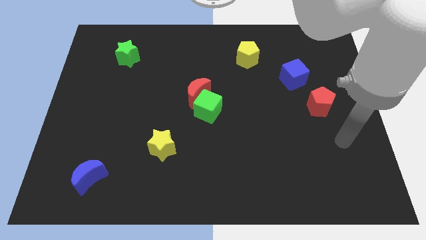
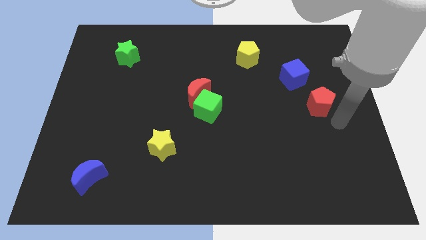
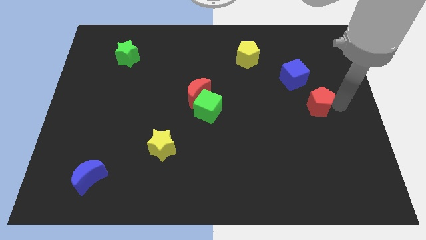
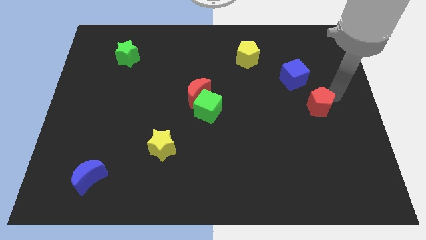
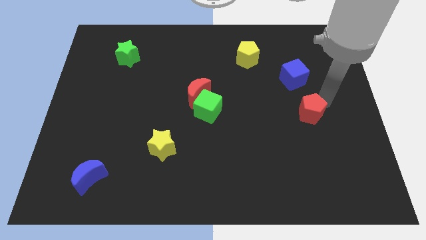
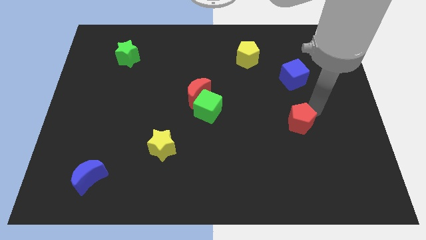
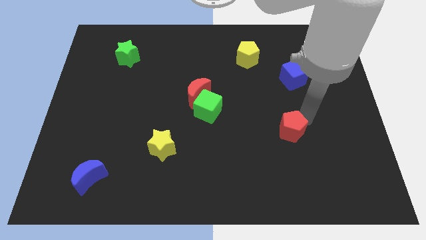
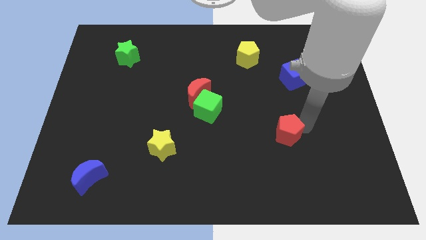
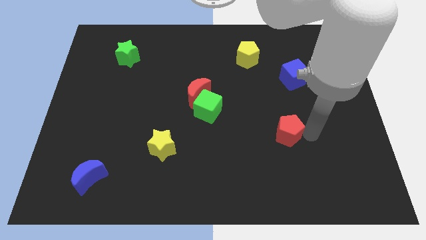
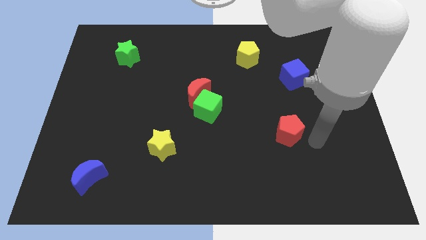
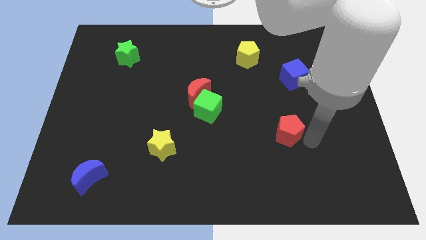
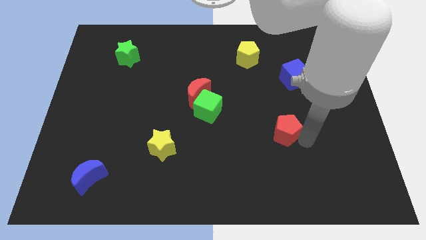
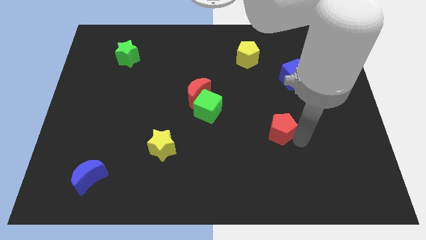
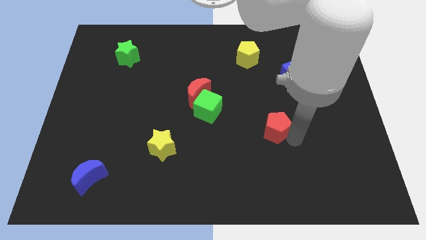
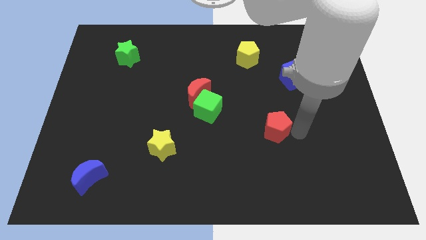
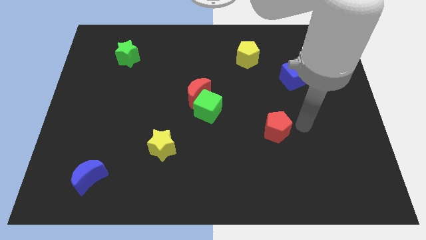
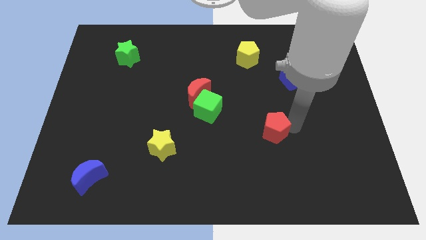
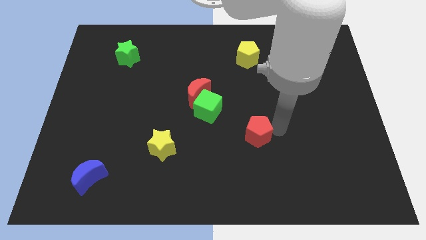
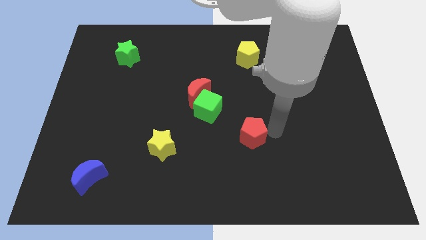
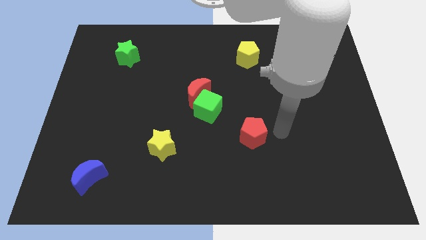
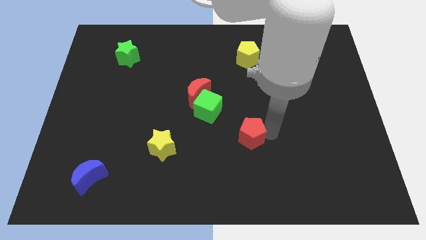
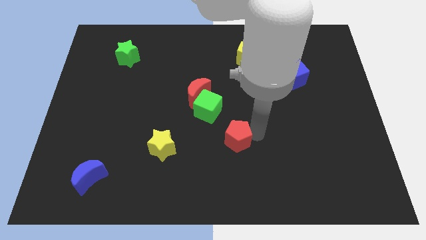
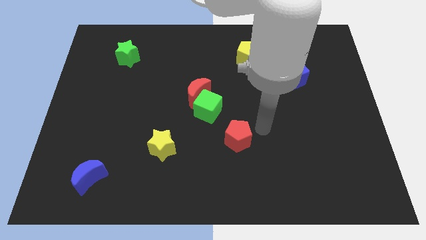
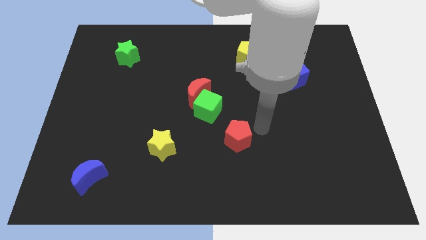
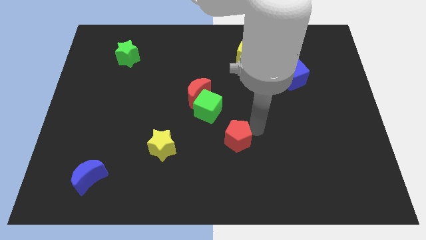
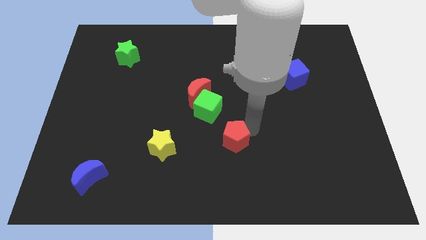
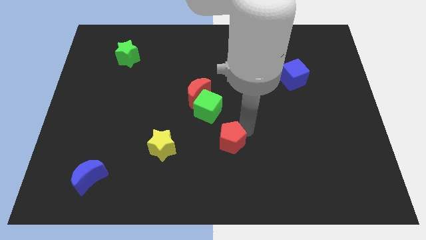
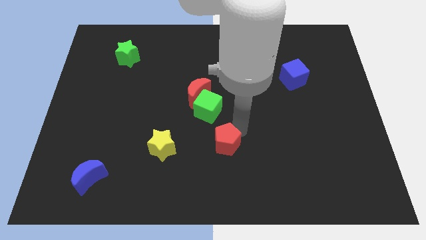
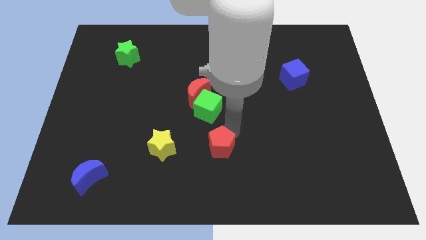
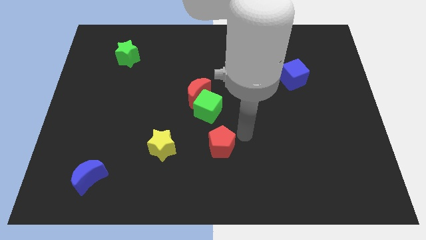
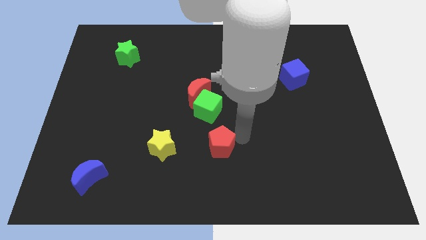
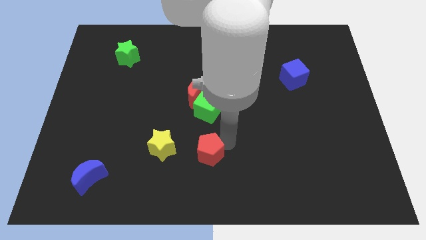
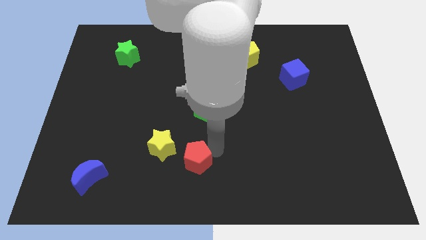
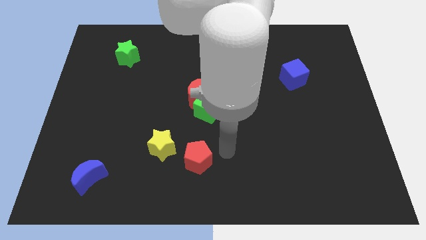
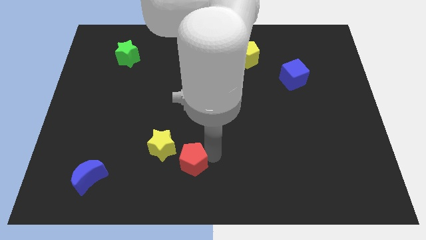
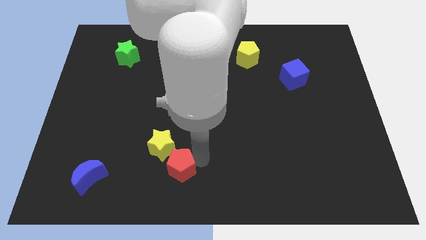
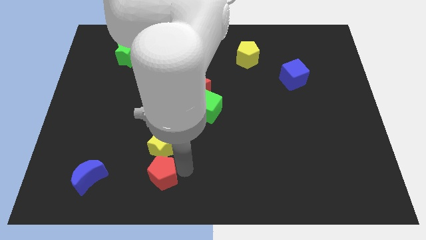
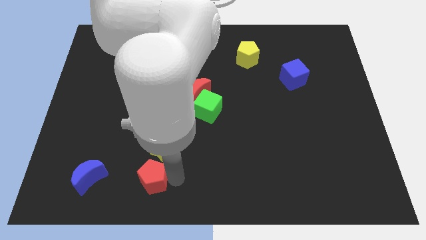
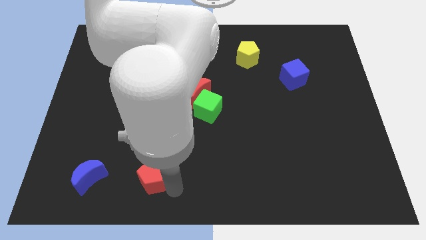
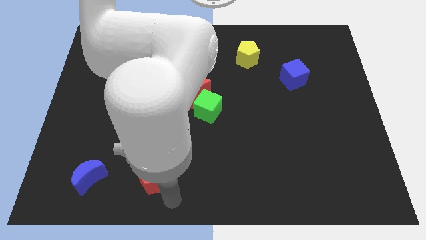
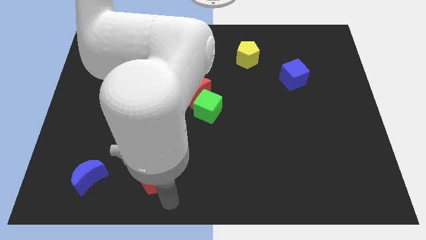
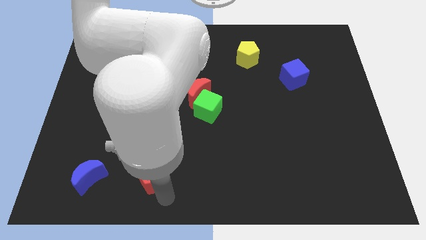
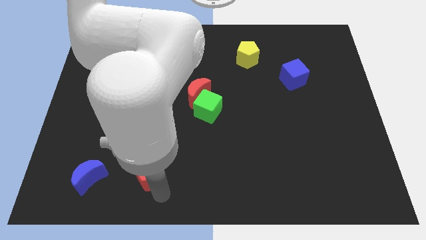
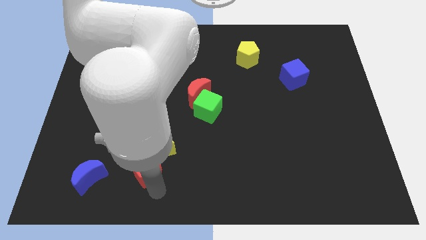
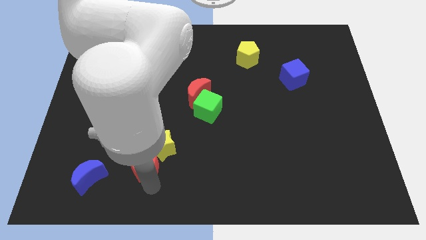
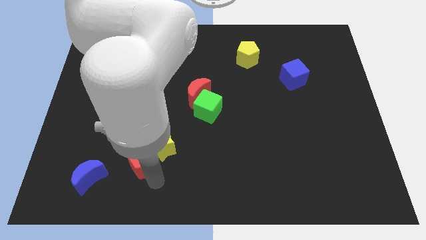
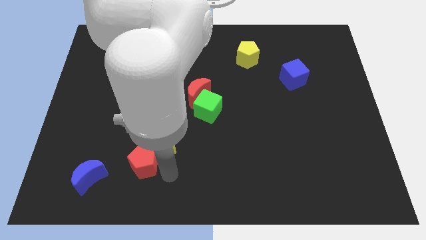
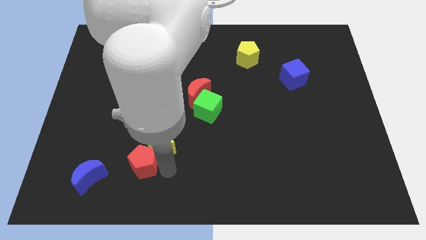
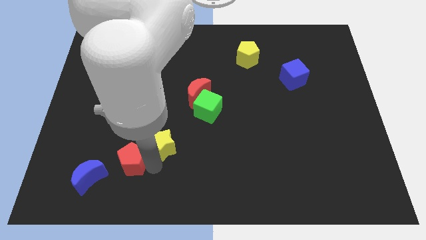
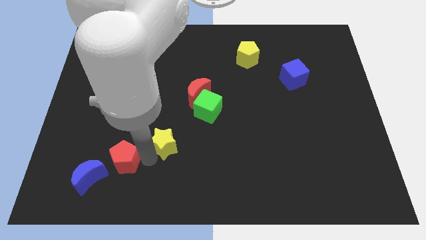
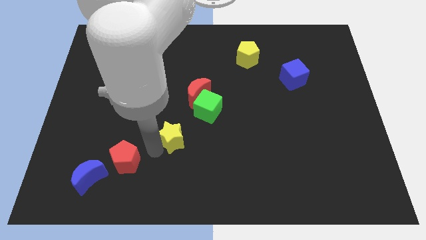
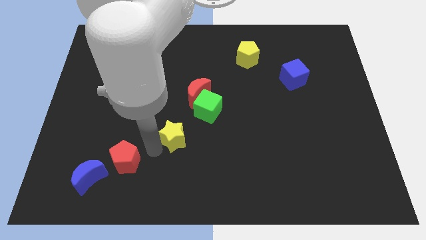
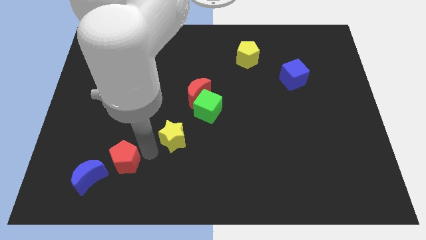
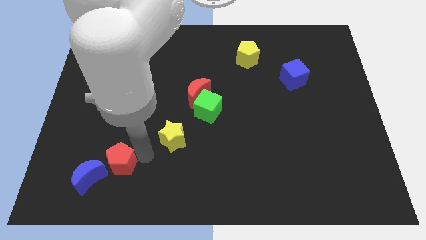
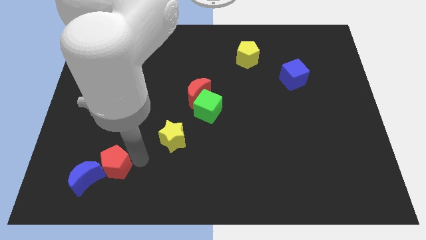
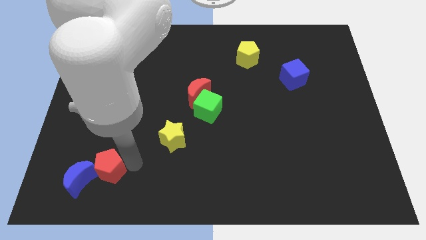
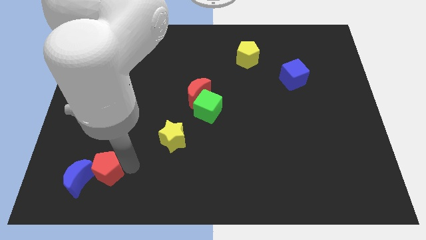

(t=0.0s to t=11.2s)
move the red pentagon close to the blue moon

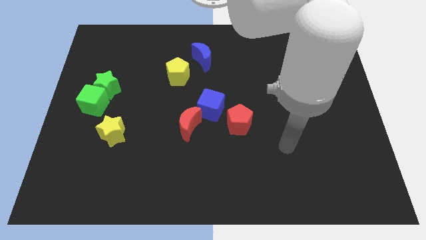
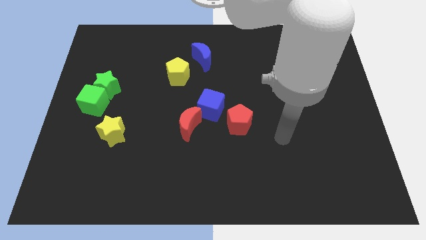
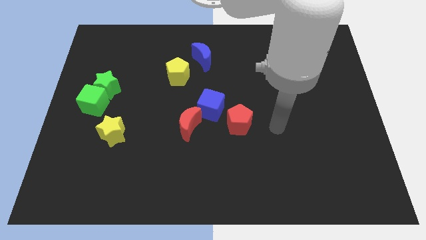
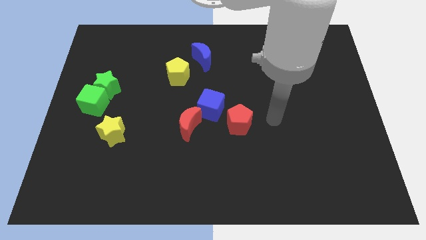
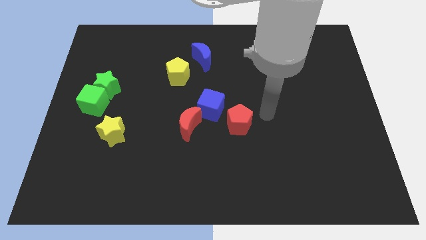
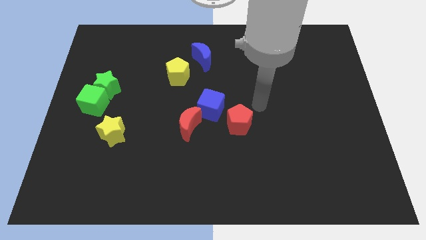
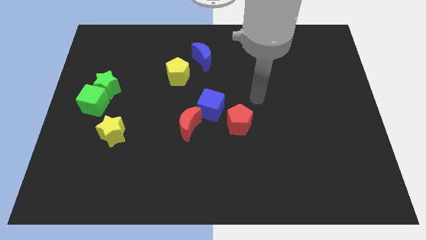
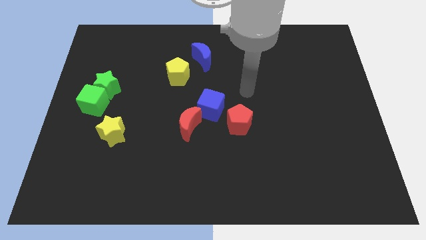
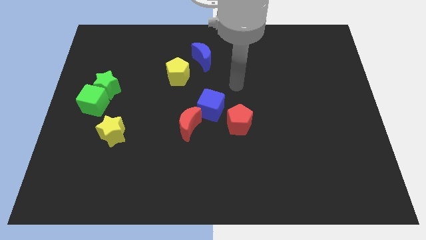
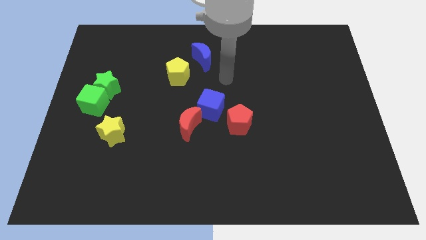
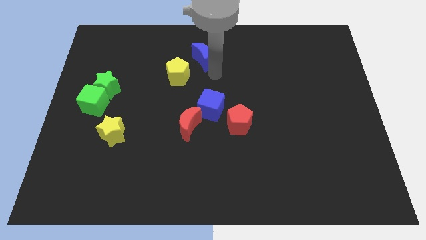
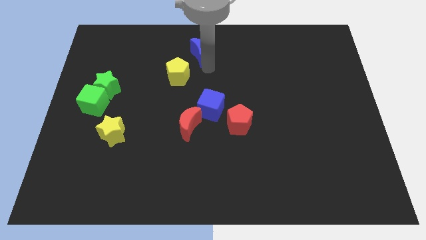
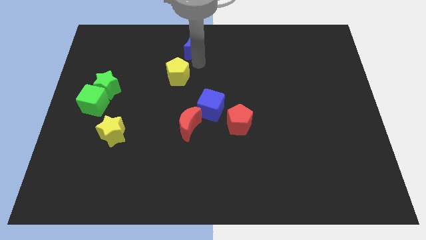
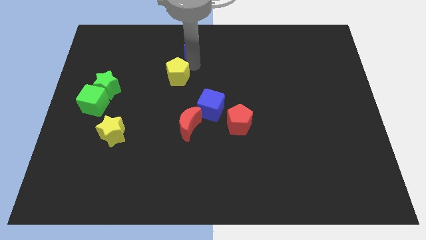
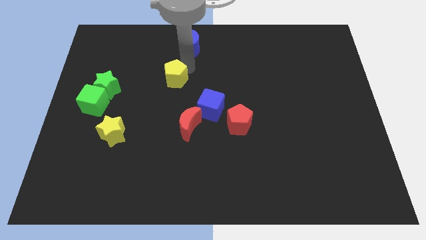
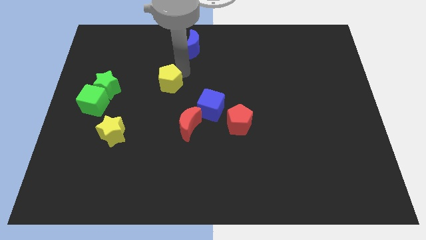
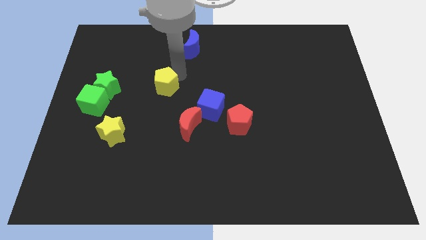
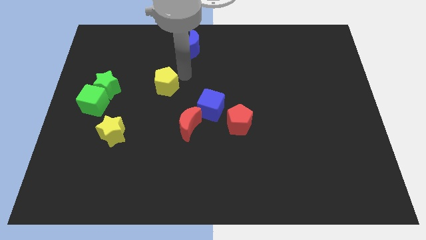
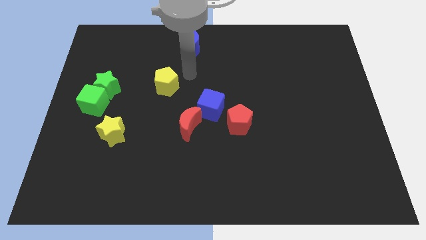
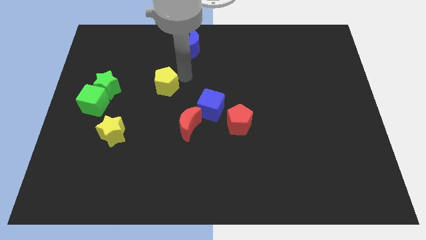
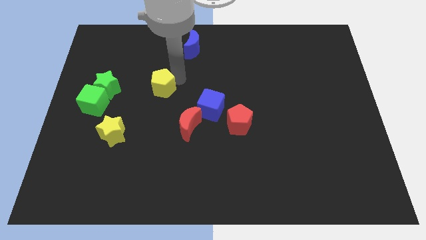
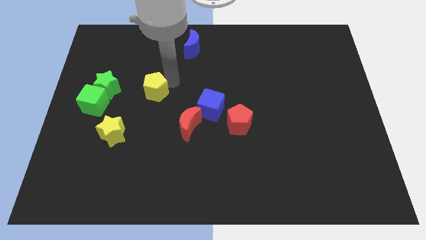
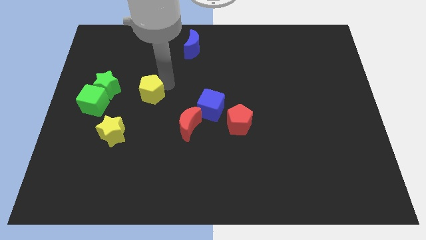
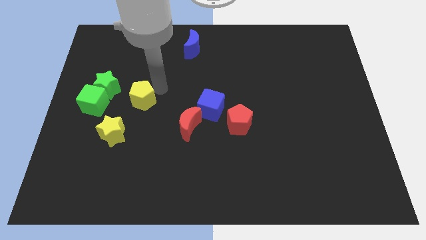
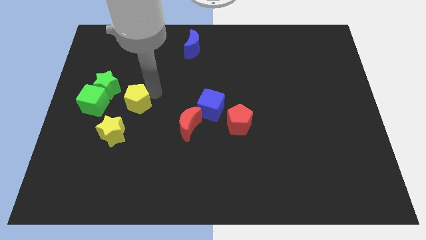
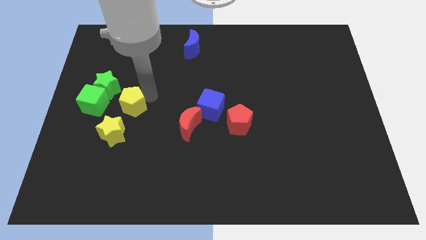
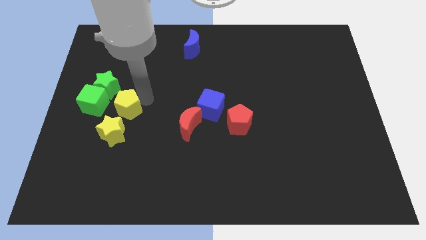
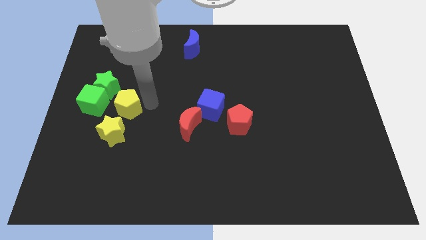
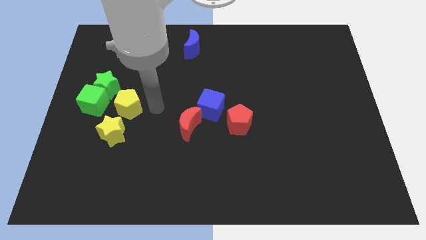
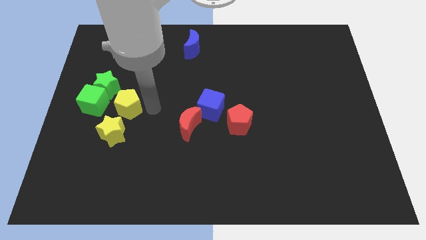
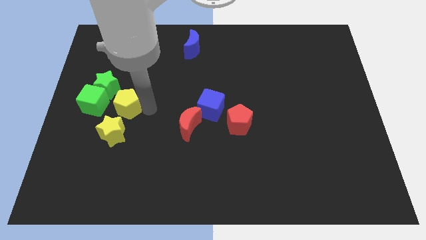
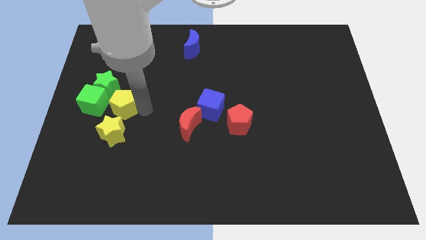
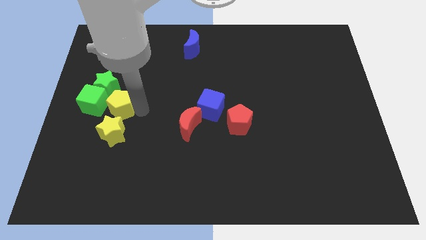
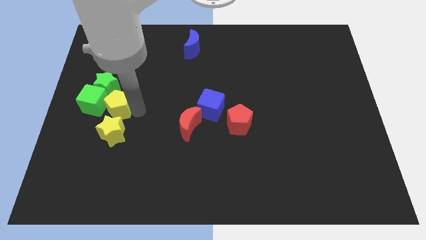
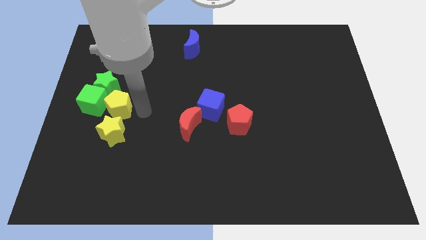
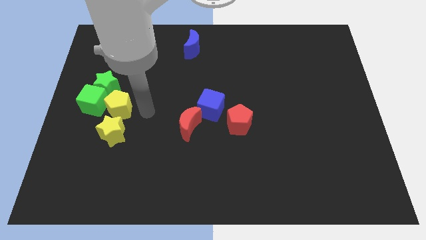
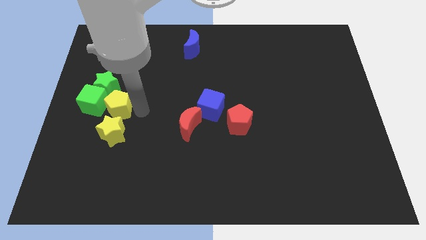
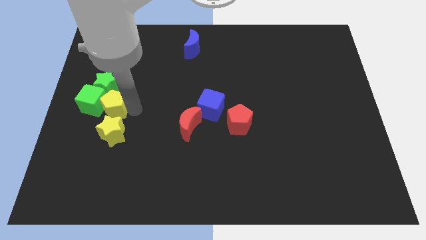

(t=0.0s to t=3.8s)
move the yellow pentagon towards the green cube
